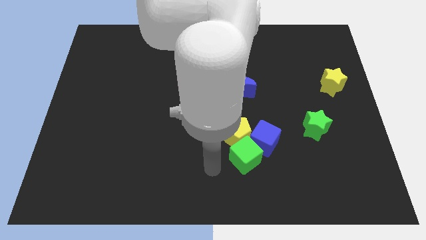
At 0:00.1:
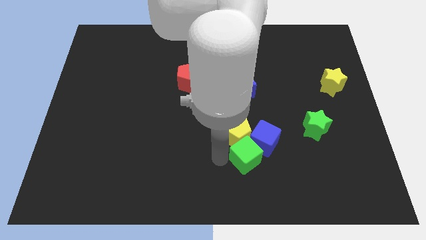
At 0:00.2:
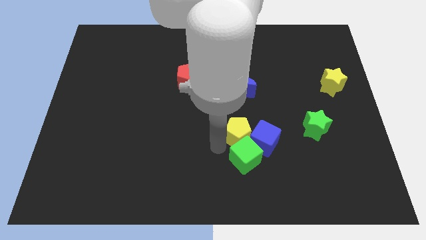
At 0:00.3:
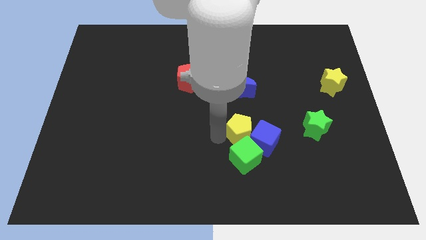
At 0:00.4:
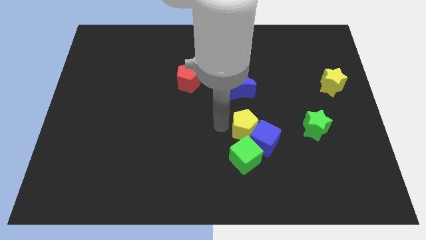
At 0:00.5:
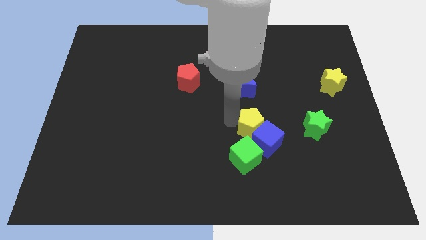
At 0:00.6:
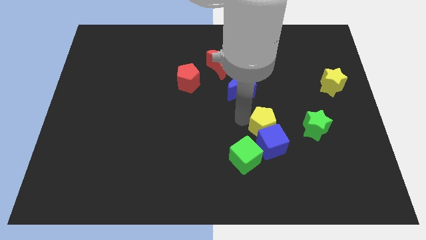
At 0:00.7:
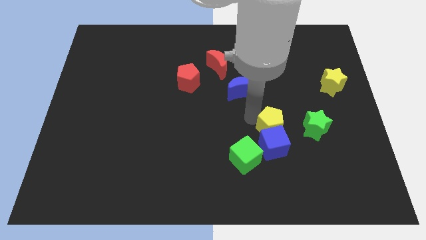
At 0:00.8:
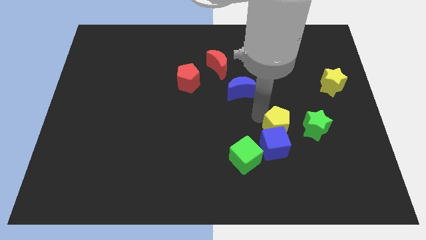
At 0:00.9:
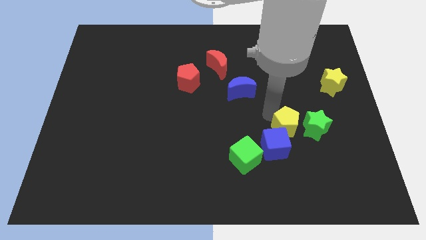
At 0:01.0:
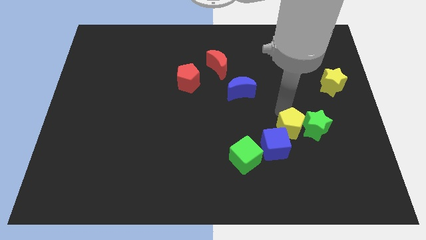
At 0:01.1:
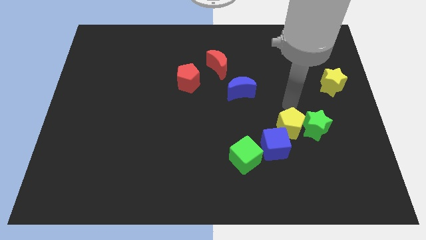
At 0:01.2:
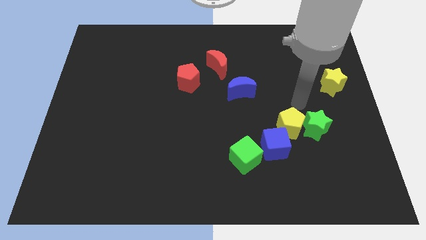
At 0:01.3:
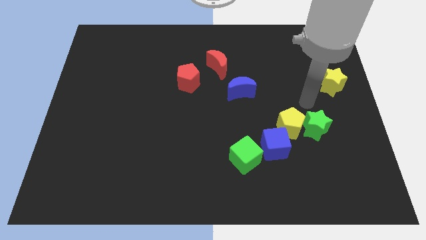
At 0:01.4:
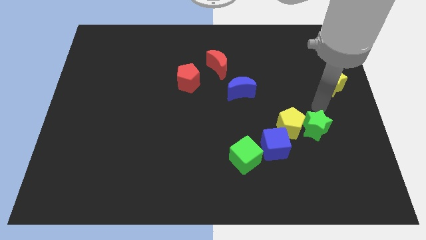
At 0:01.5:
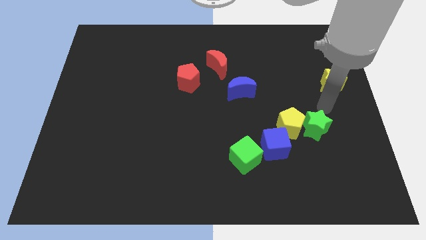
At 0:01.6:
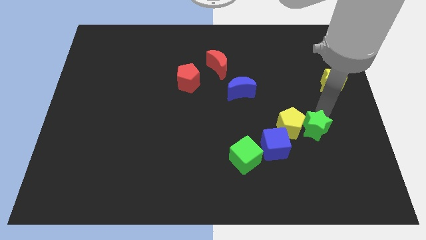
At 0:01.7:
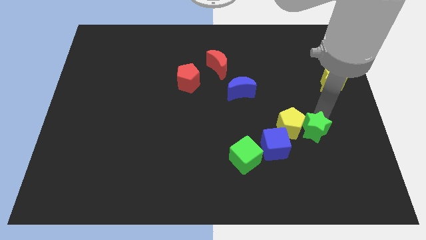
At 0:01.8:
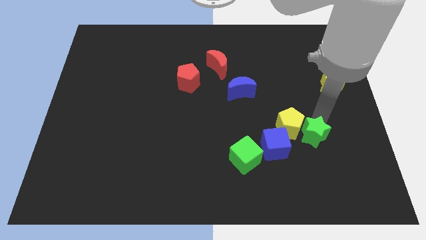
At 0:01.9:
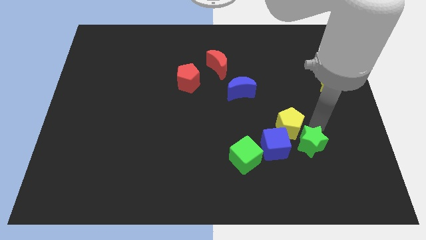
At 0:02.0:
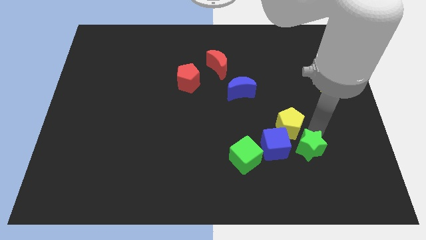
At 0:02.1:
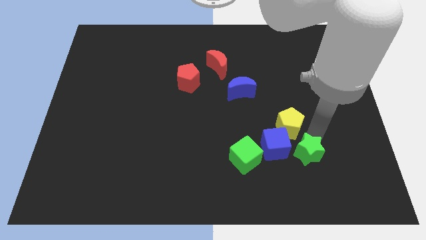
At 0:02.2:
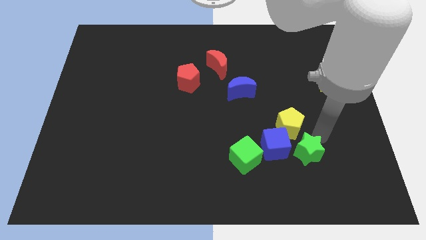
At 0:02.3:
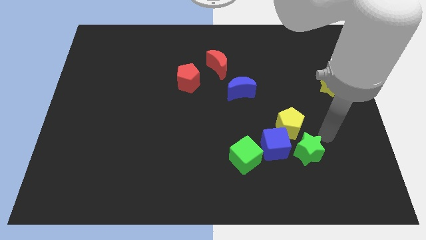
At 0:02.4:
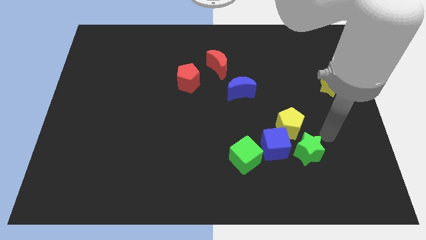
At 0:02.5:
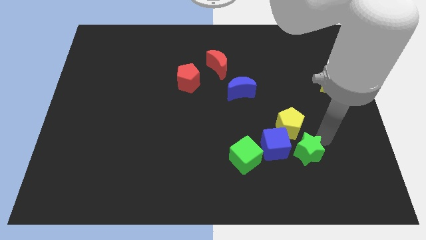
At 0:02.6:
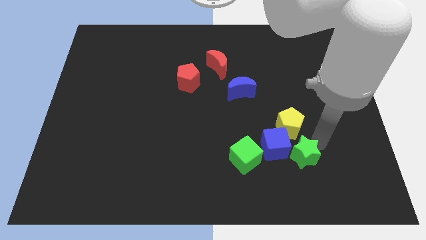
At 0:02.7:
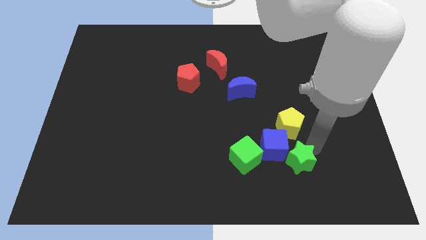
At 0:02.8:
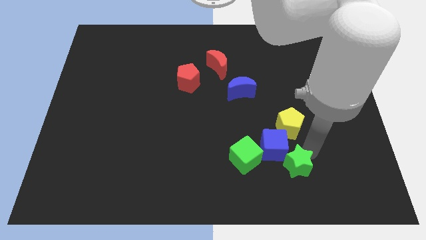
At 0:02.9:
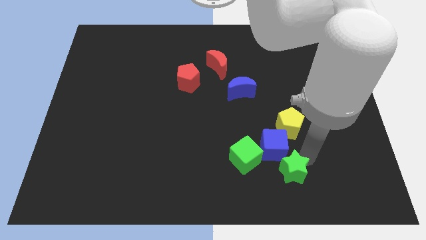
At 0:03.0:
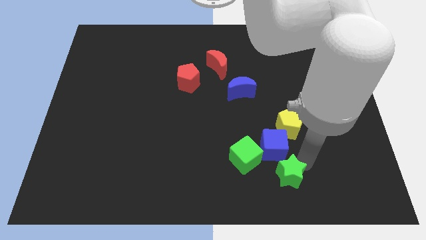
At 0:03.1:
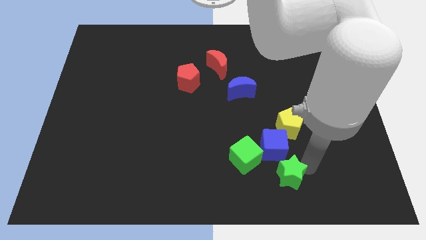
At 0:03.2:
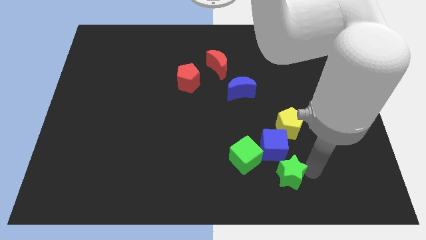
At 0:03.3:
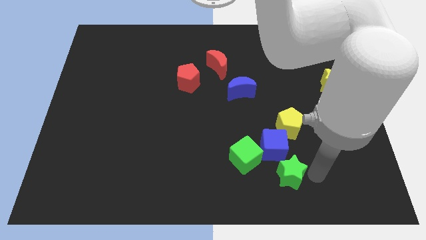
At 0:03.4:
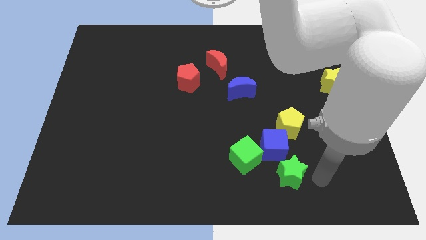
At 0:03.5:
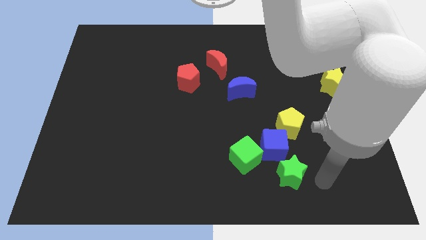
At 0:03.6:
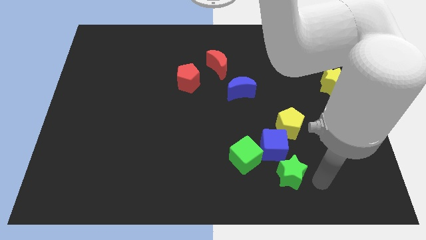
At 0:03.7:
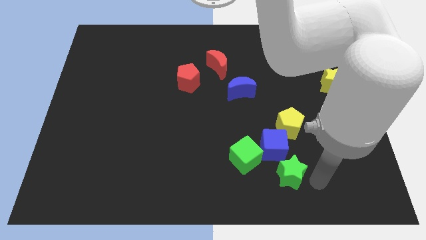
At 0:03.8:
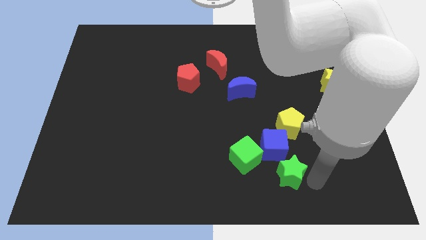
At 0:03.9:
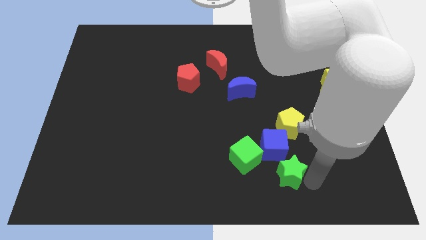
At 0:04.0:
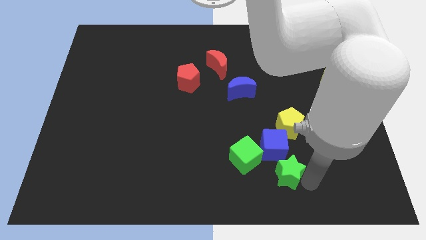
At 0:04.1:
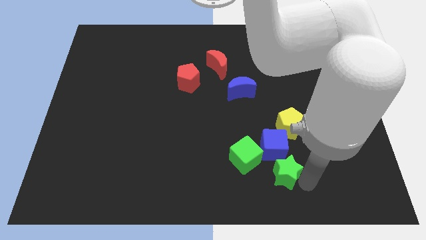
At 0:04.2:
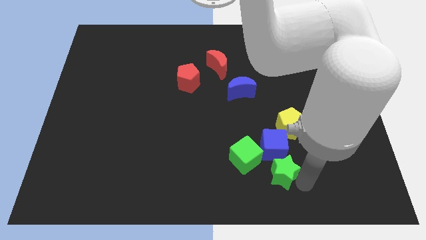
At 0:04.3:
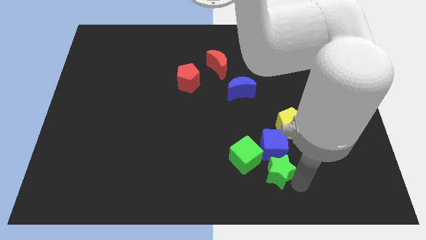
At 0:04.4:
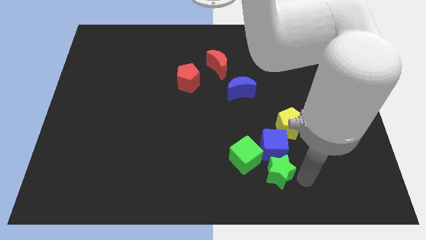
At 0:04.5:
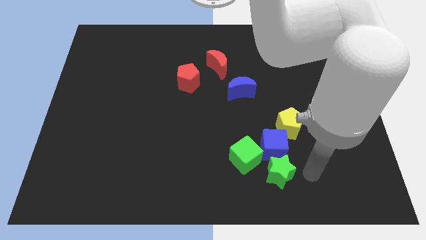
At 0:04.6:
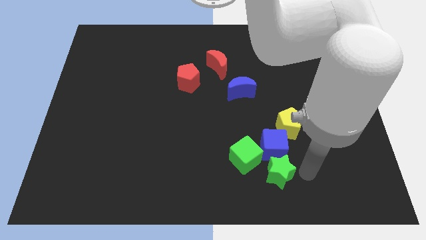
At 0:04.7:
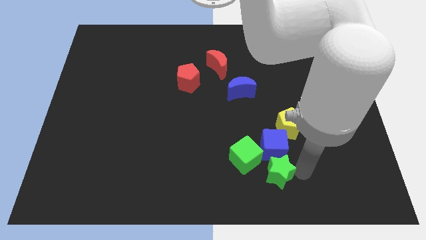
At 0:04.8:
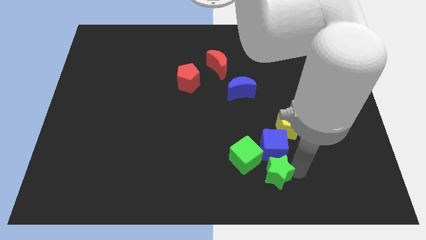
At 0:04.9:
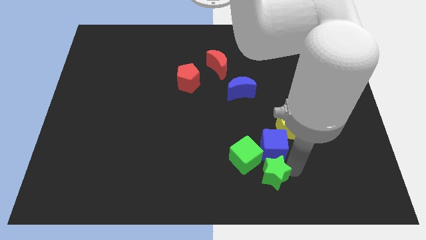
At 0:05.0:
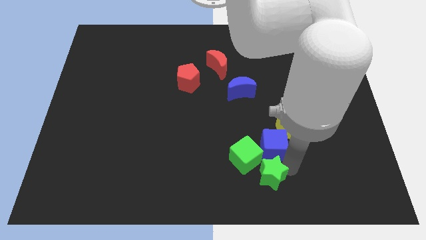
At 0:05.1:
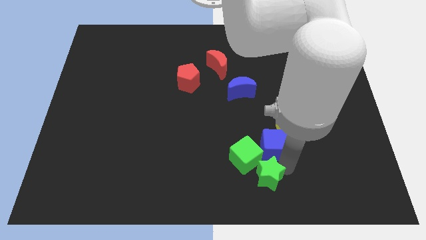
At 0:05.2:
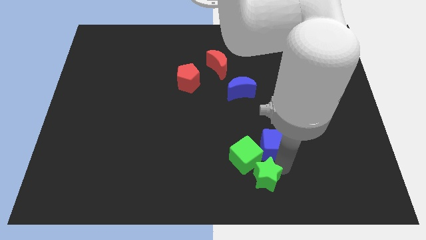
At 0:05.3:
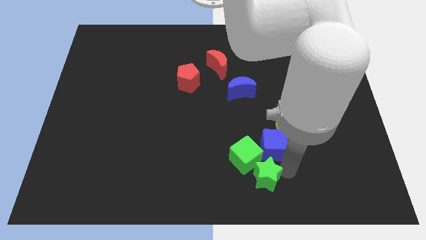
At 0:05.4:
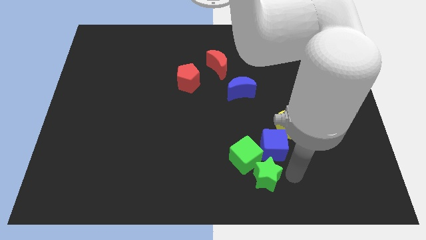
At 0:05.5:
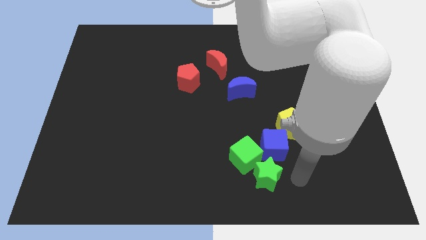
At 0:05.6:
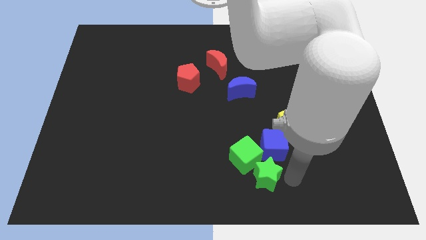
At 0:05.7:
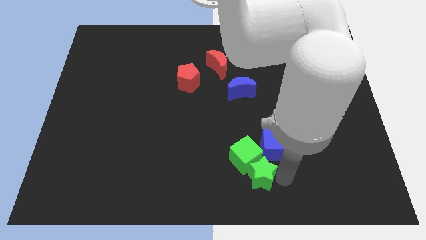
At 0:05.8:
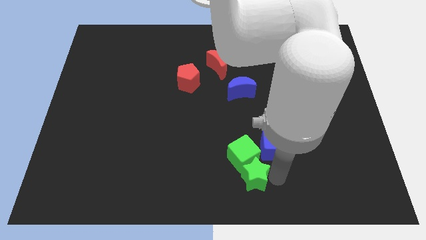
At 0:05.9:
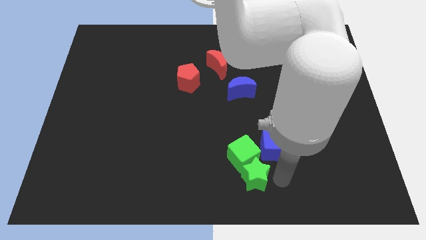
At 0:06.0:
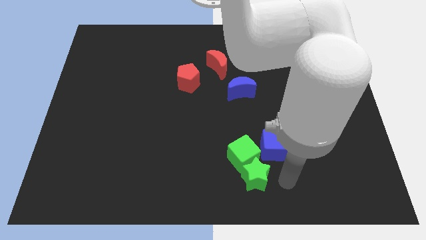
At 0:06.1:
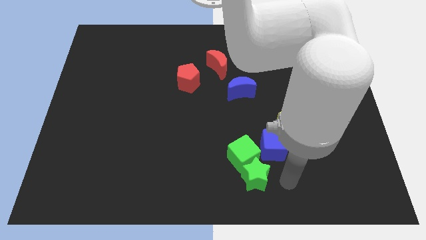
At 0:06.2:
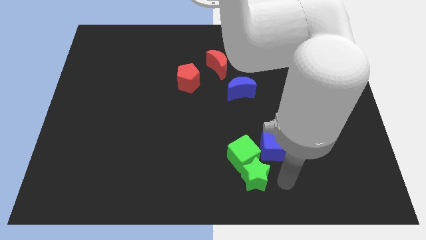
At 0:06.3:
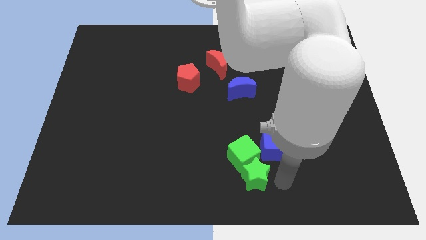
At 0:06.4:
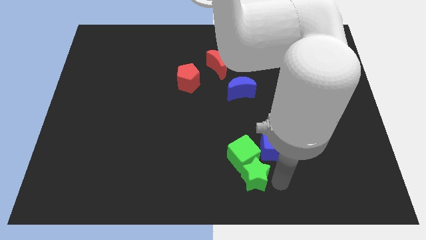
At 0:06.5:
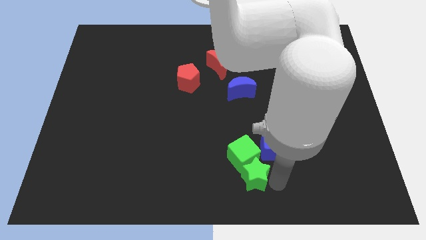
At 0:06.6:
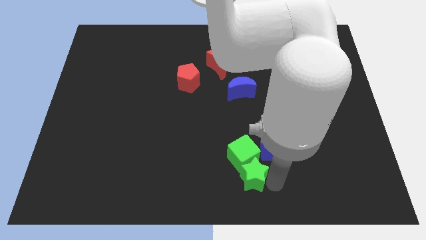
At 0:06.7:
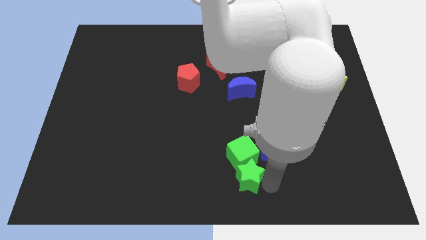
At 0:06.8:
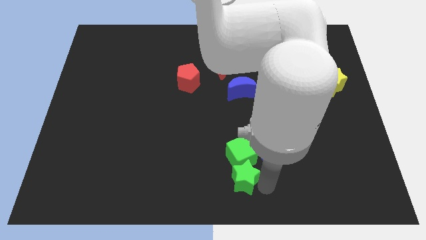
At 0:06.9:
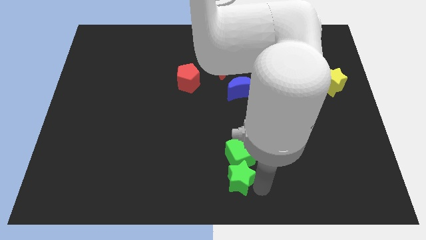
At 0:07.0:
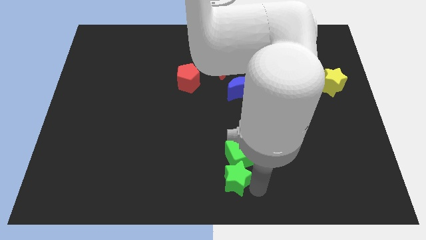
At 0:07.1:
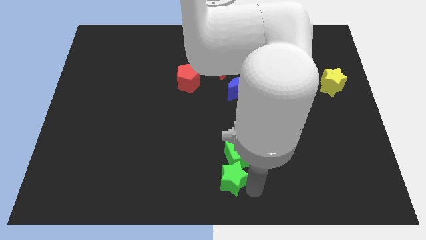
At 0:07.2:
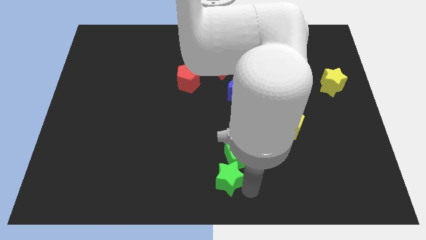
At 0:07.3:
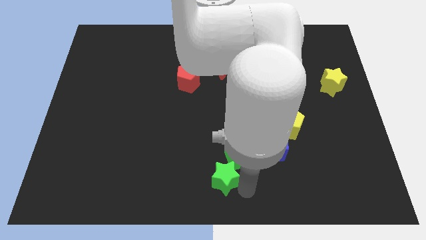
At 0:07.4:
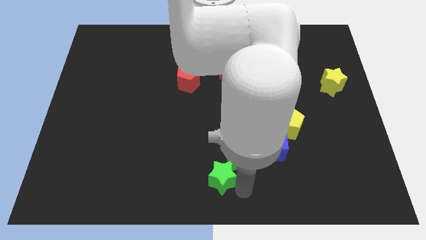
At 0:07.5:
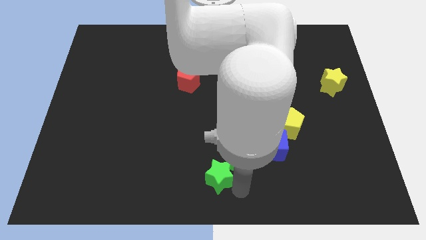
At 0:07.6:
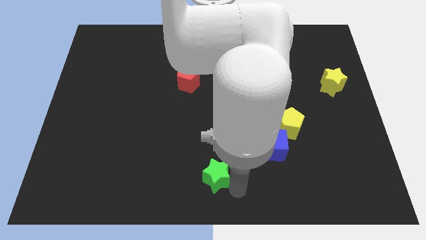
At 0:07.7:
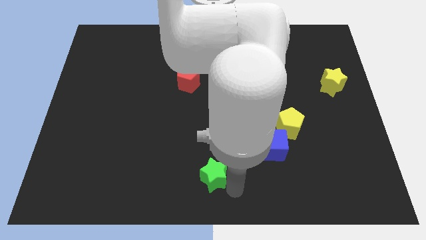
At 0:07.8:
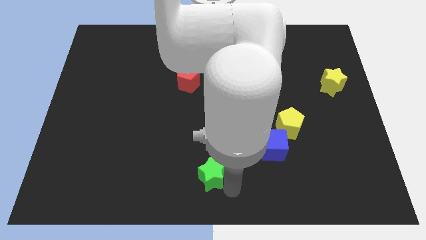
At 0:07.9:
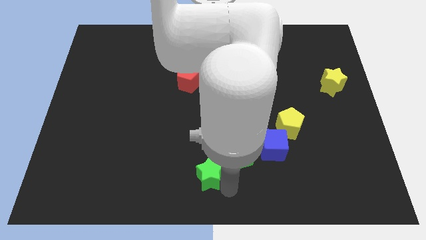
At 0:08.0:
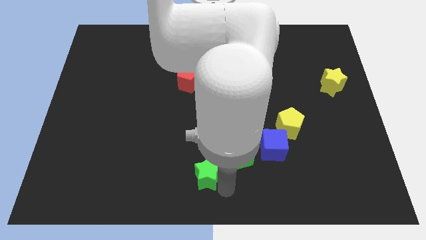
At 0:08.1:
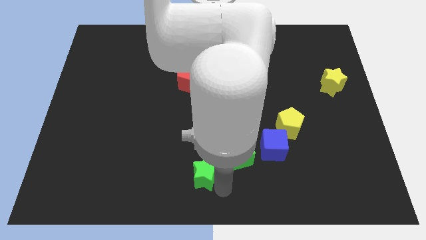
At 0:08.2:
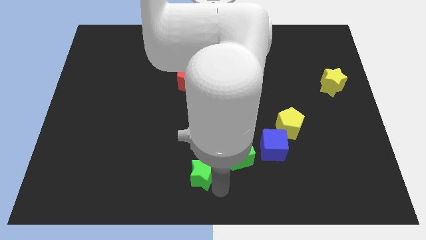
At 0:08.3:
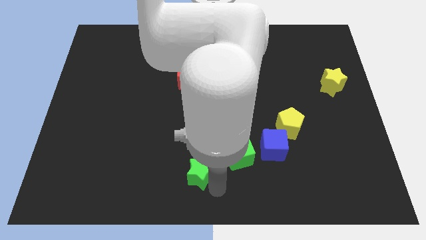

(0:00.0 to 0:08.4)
move the green star to the left side of the green cube
